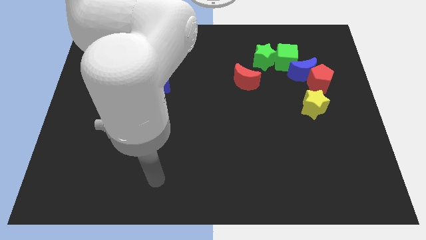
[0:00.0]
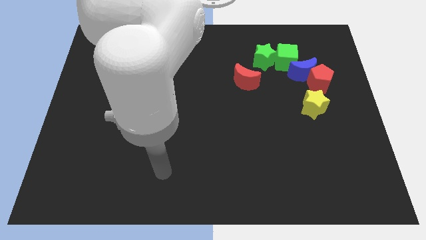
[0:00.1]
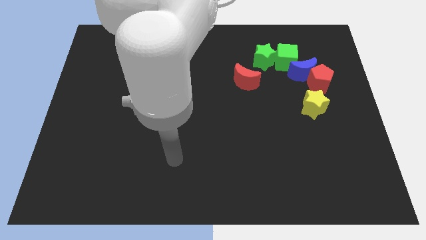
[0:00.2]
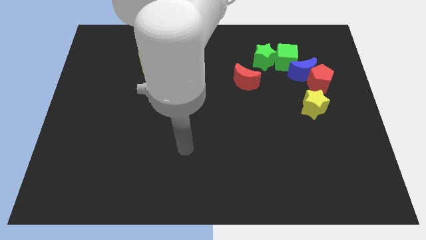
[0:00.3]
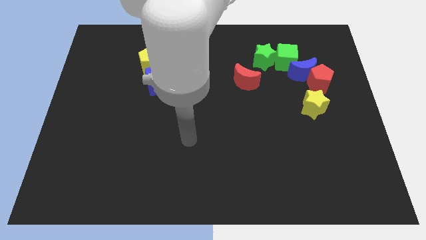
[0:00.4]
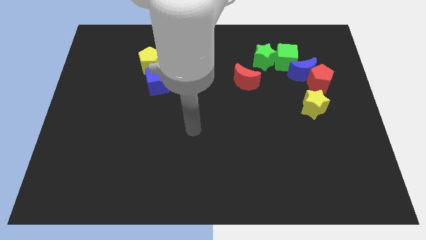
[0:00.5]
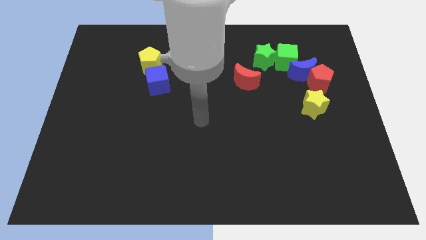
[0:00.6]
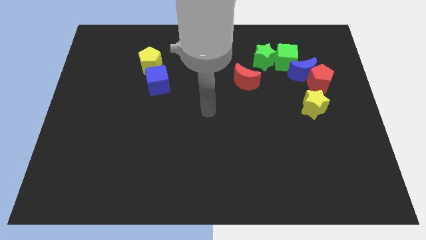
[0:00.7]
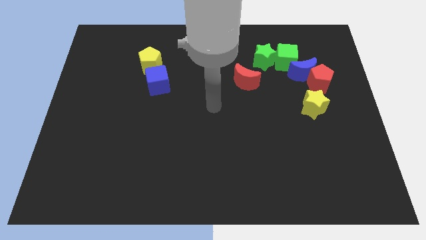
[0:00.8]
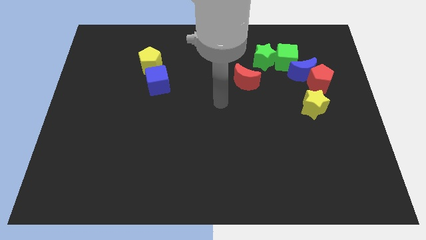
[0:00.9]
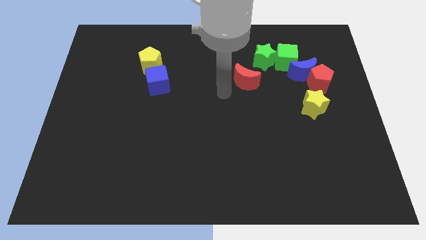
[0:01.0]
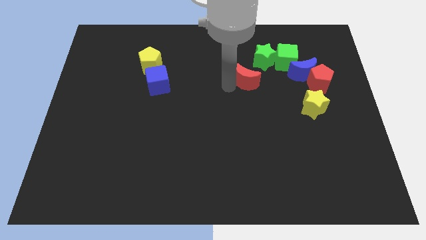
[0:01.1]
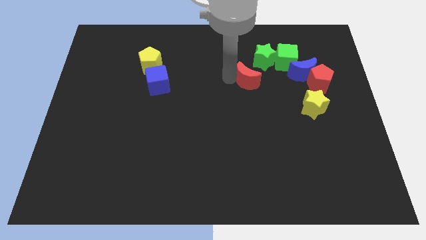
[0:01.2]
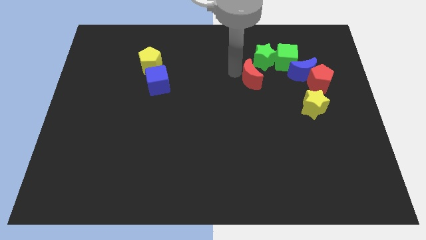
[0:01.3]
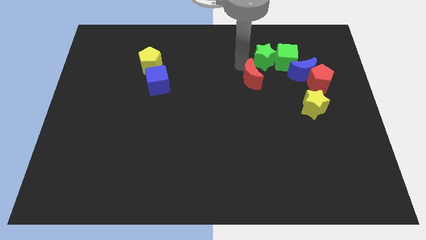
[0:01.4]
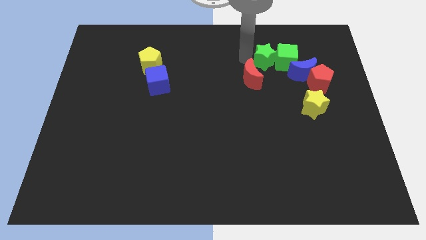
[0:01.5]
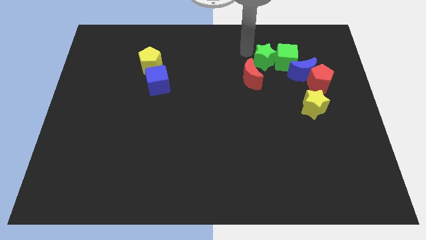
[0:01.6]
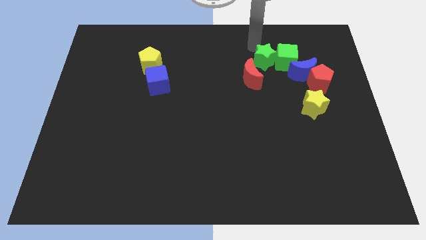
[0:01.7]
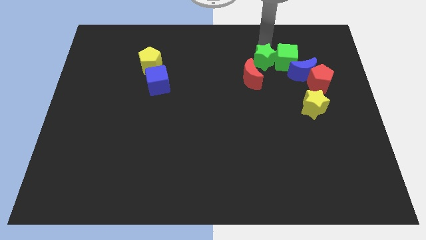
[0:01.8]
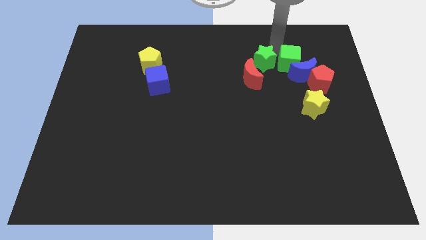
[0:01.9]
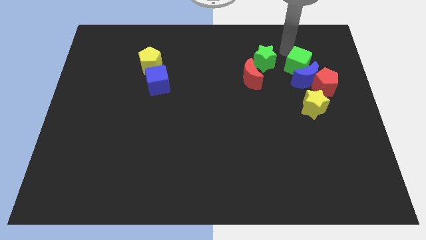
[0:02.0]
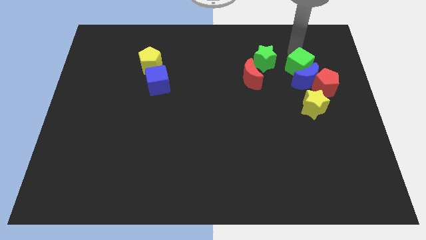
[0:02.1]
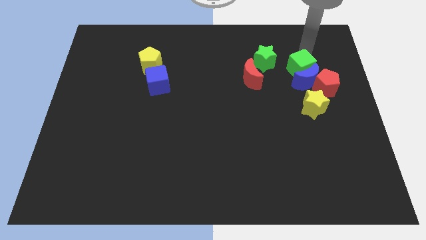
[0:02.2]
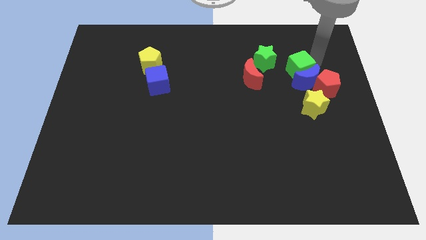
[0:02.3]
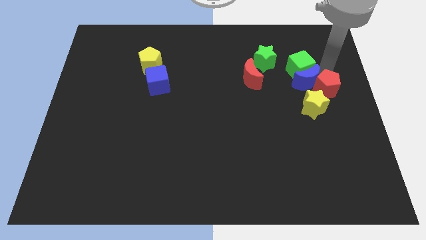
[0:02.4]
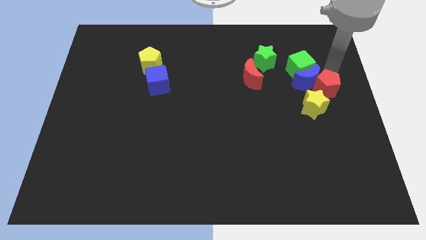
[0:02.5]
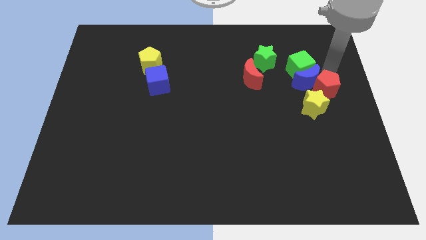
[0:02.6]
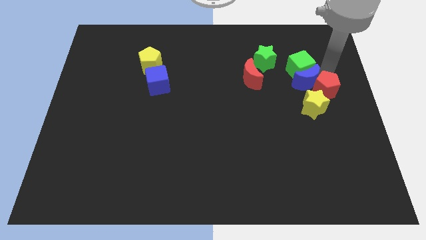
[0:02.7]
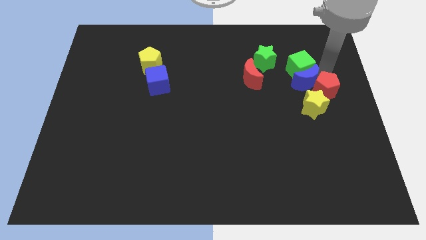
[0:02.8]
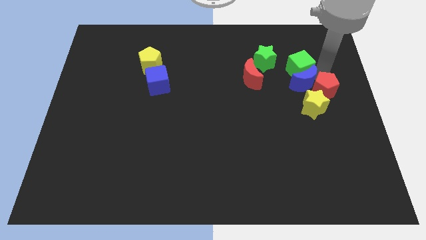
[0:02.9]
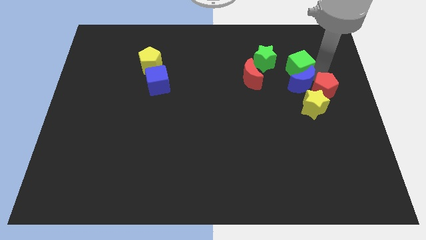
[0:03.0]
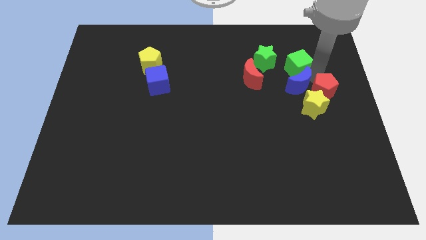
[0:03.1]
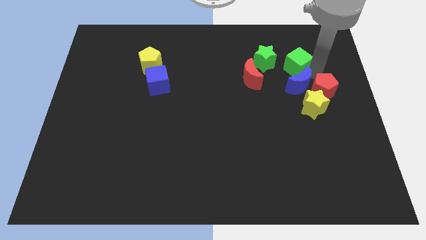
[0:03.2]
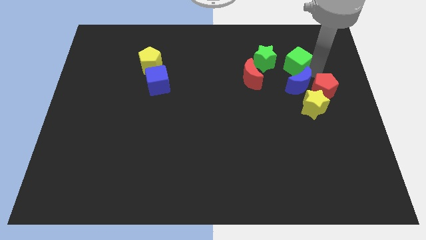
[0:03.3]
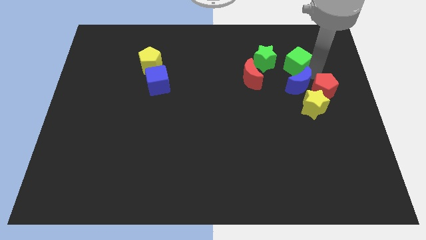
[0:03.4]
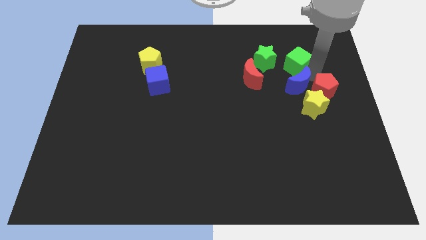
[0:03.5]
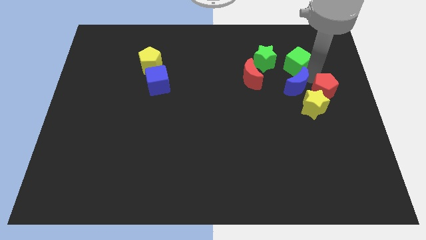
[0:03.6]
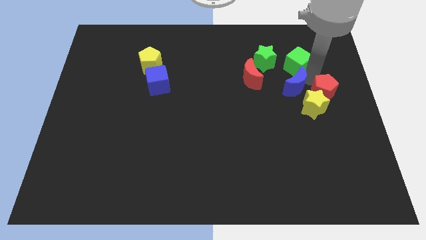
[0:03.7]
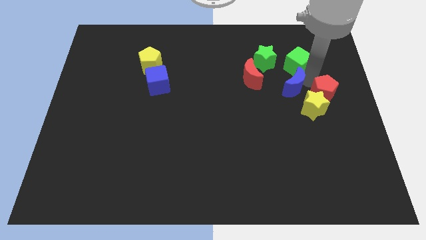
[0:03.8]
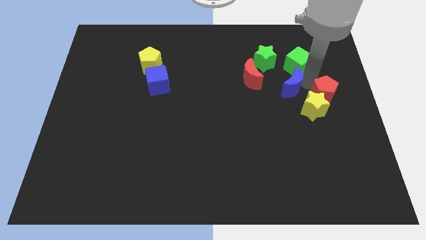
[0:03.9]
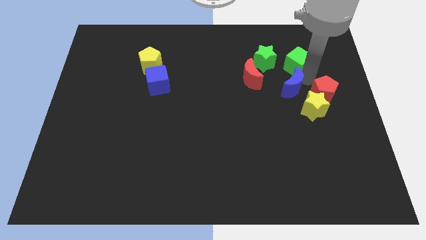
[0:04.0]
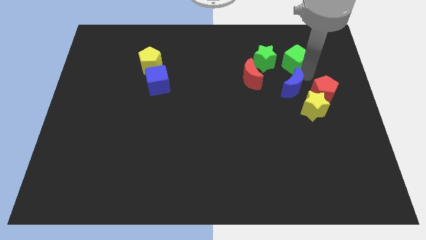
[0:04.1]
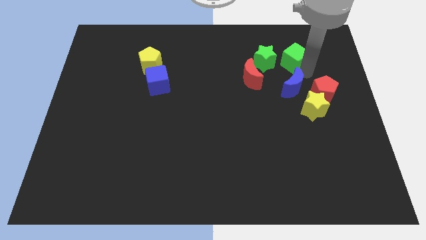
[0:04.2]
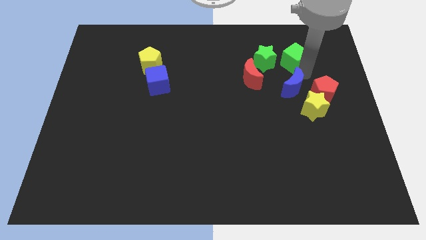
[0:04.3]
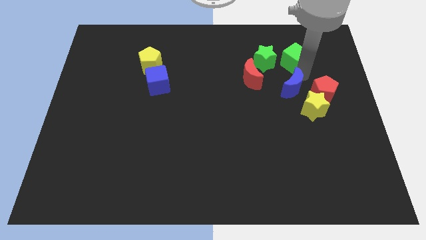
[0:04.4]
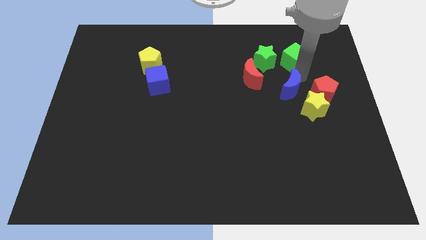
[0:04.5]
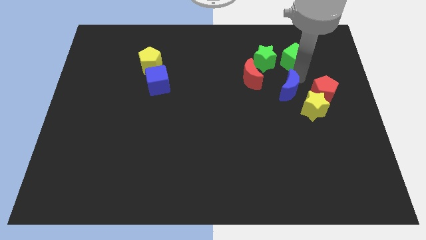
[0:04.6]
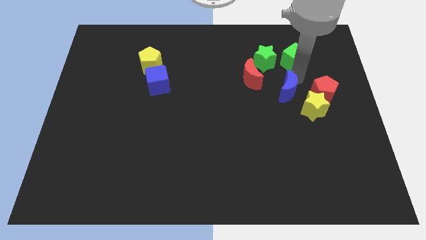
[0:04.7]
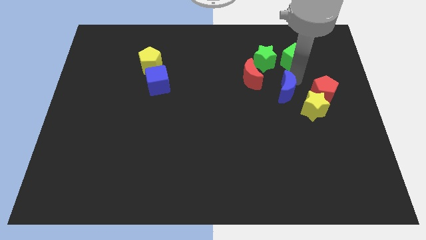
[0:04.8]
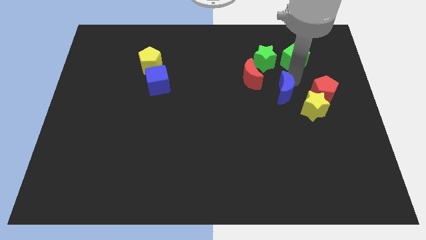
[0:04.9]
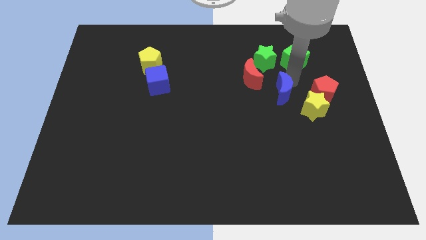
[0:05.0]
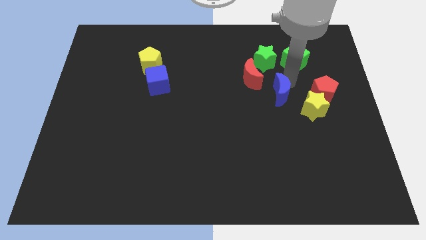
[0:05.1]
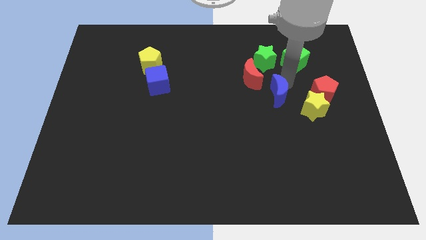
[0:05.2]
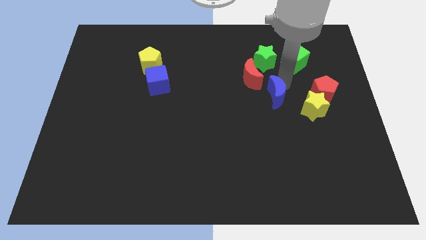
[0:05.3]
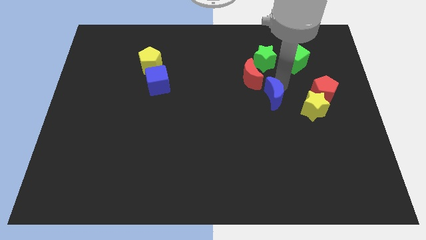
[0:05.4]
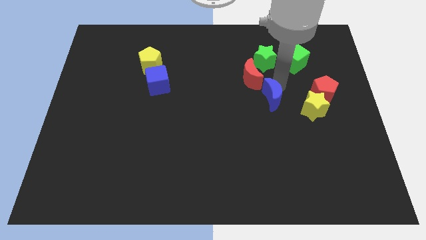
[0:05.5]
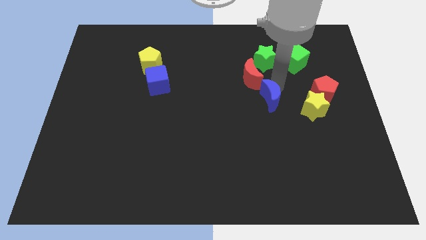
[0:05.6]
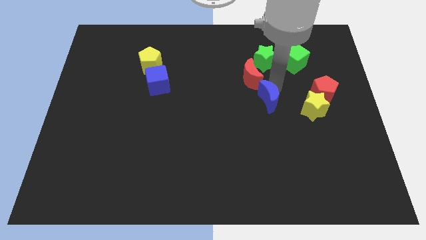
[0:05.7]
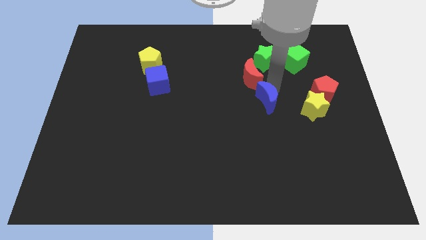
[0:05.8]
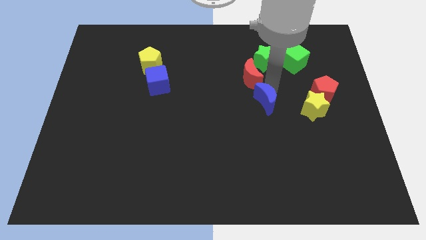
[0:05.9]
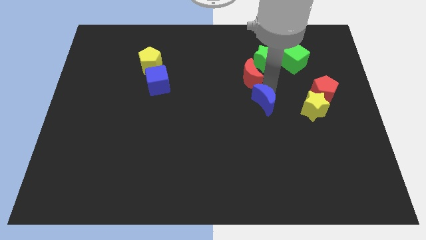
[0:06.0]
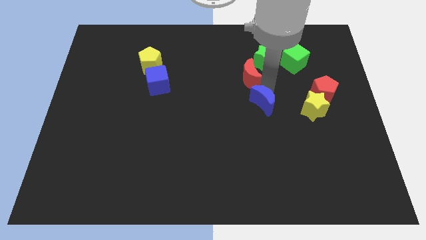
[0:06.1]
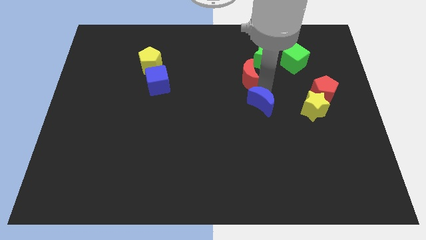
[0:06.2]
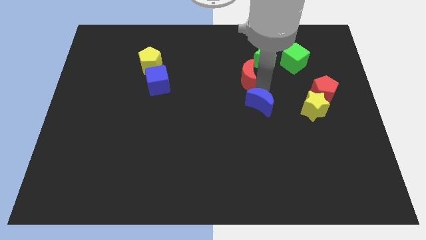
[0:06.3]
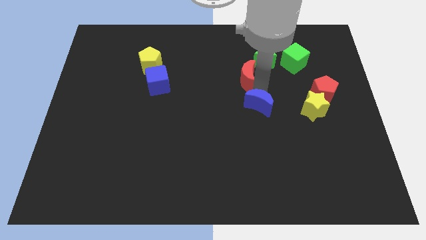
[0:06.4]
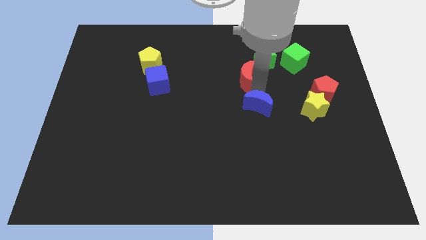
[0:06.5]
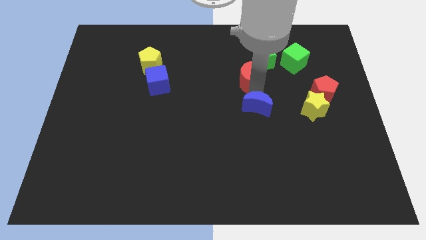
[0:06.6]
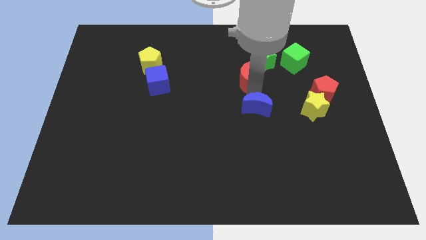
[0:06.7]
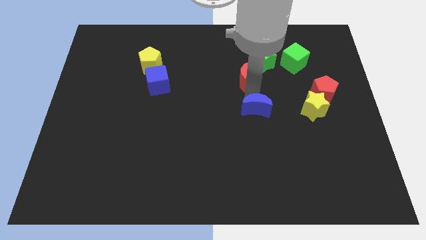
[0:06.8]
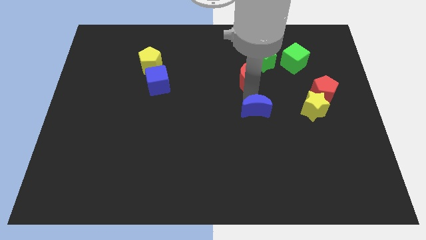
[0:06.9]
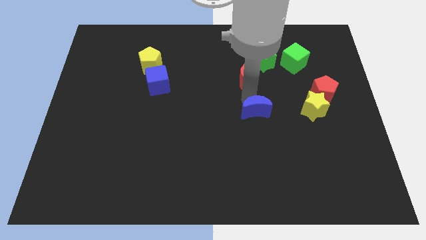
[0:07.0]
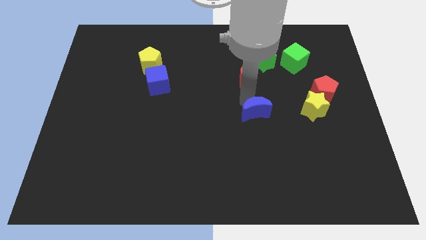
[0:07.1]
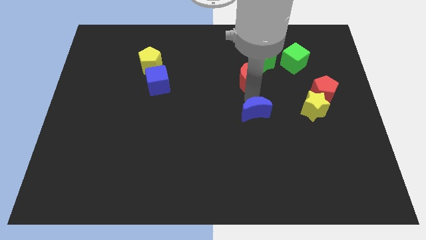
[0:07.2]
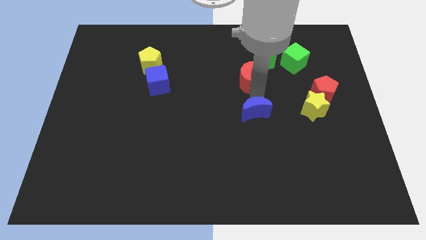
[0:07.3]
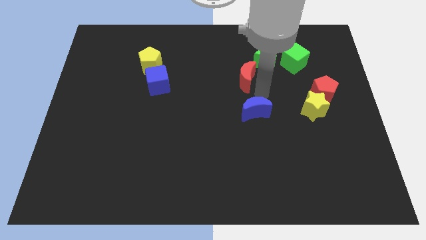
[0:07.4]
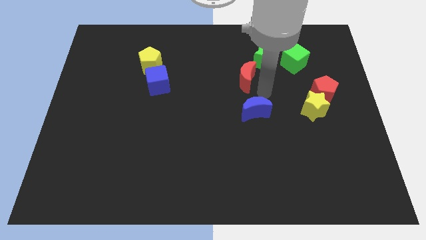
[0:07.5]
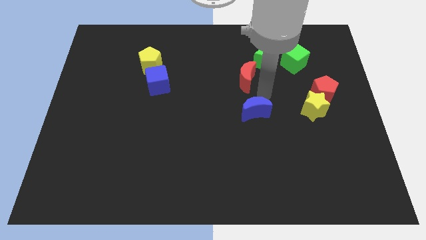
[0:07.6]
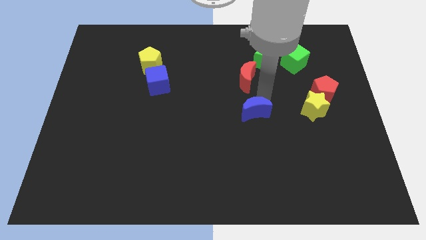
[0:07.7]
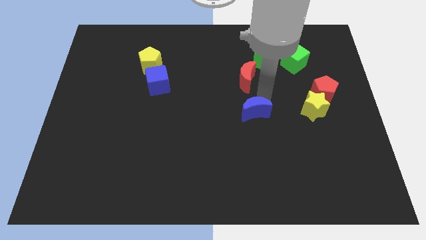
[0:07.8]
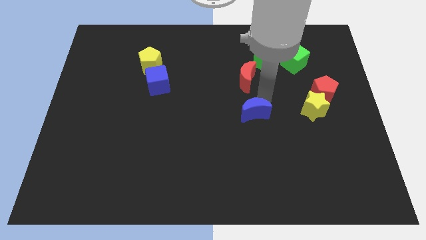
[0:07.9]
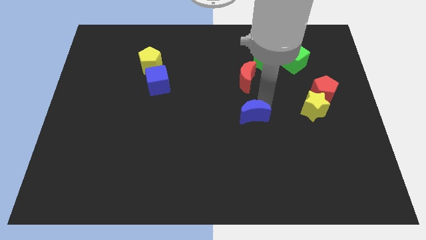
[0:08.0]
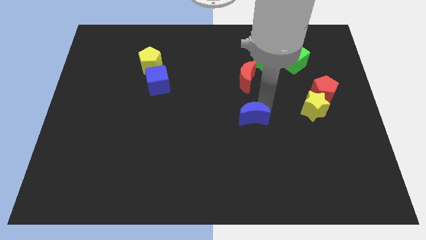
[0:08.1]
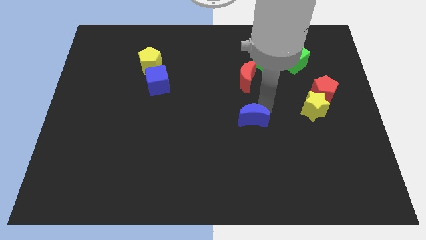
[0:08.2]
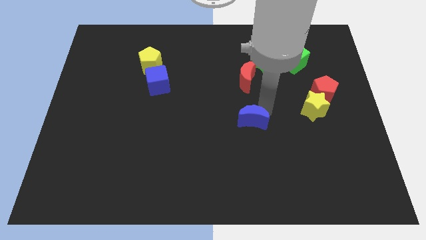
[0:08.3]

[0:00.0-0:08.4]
push the blue moon downwards and left
